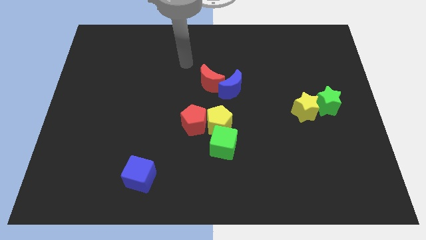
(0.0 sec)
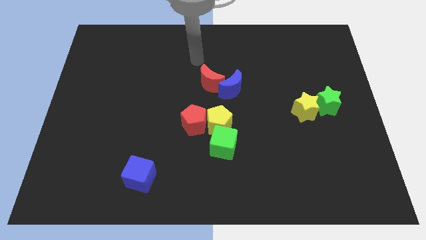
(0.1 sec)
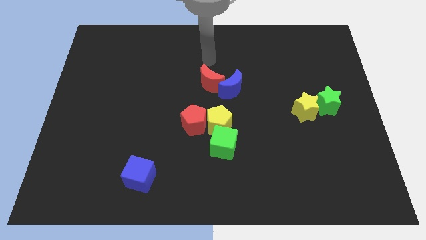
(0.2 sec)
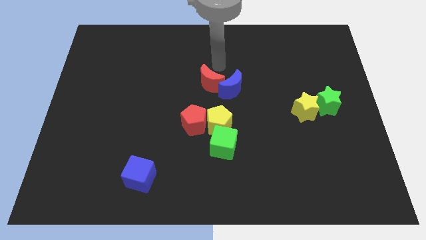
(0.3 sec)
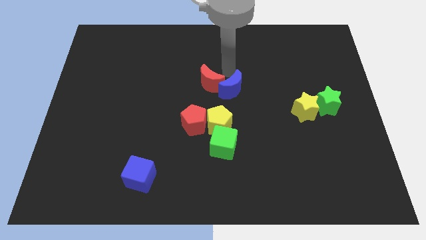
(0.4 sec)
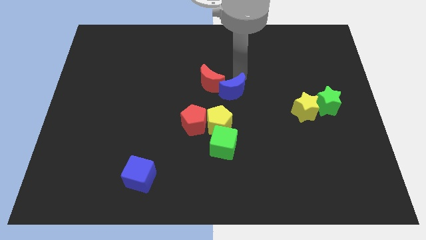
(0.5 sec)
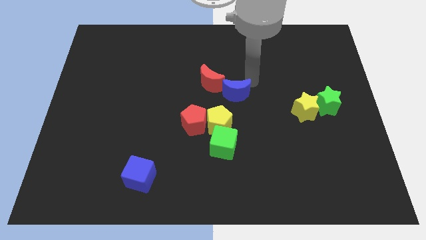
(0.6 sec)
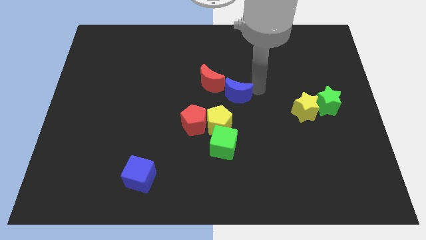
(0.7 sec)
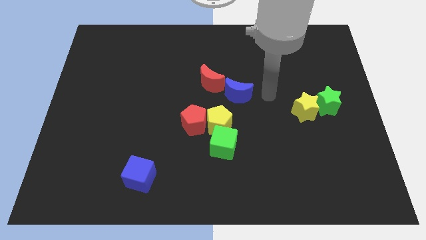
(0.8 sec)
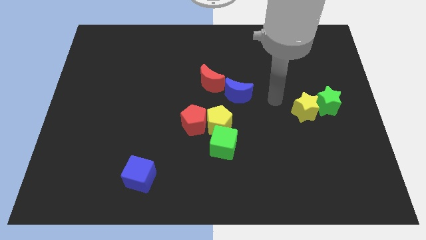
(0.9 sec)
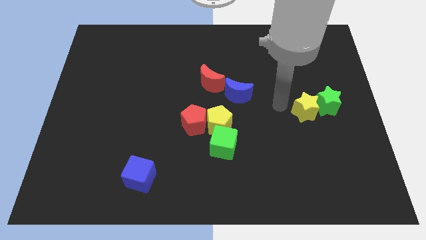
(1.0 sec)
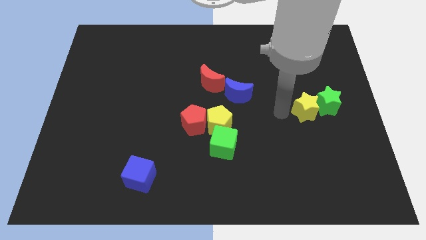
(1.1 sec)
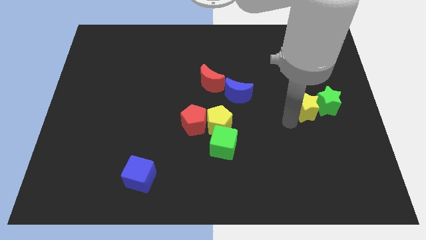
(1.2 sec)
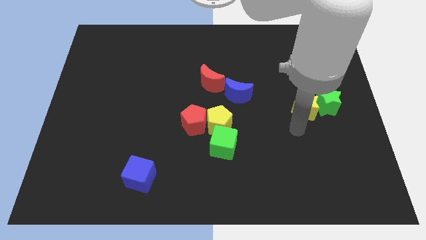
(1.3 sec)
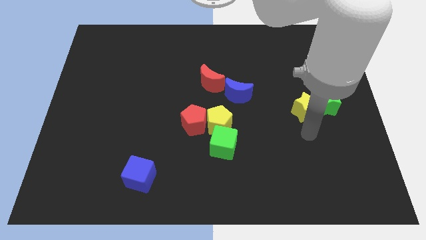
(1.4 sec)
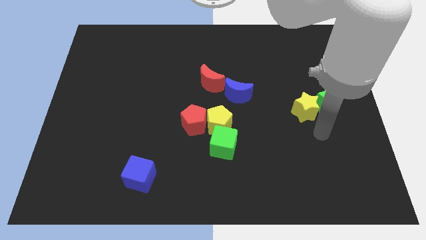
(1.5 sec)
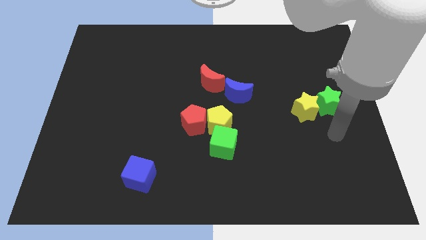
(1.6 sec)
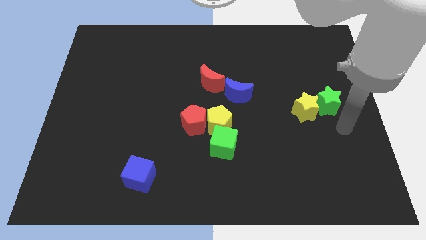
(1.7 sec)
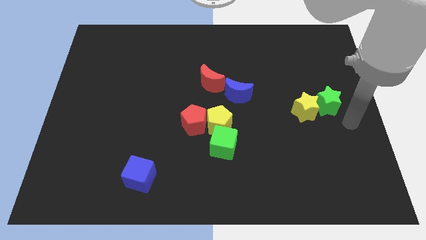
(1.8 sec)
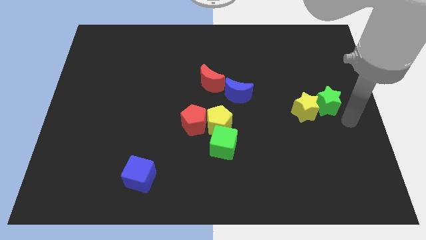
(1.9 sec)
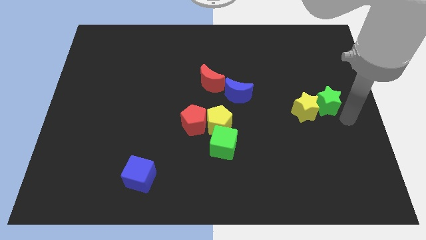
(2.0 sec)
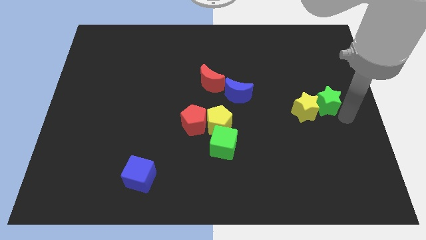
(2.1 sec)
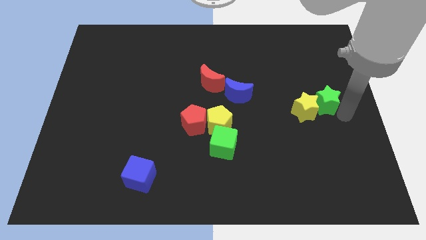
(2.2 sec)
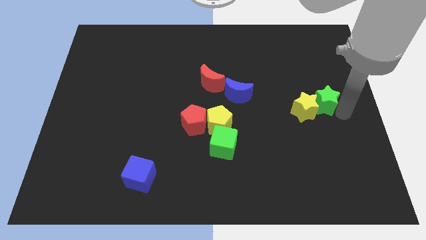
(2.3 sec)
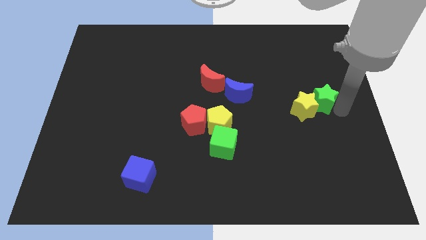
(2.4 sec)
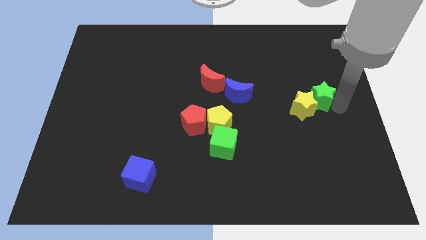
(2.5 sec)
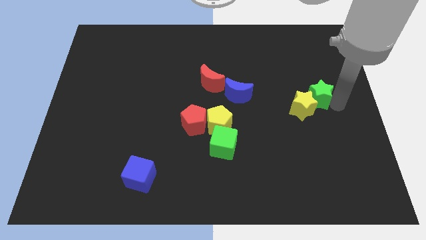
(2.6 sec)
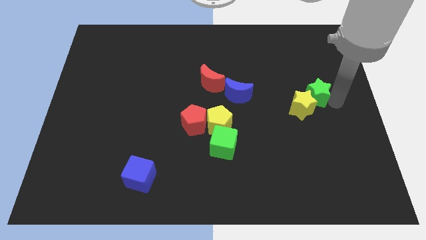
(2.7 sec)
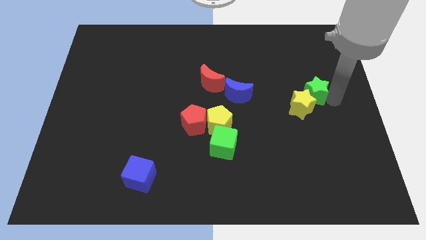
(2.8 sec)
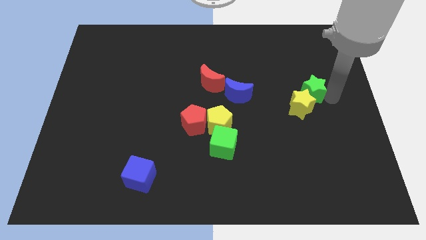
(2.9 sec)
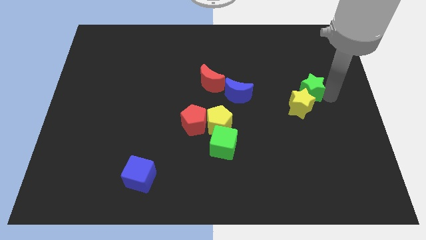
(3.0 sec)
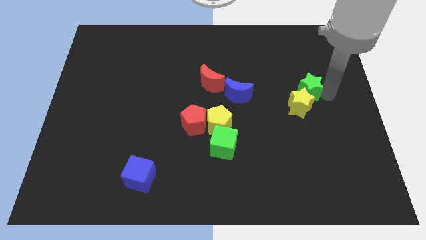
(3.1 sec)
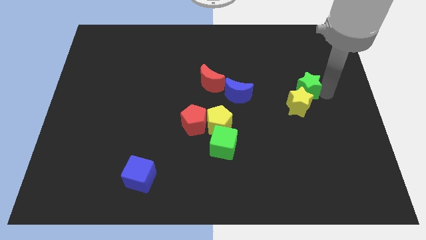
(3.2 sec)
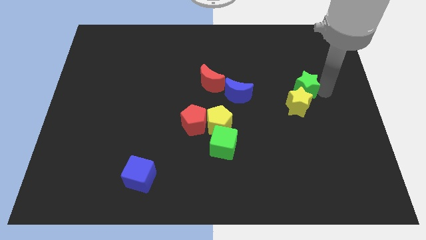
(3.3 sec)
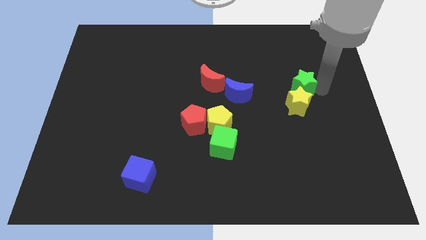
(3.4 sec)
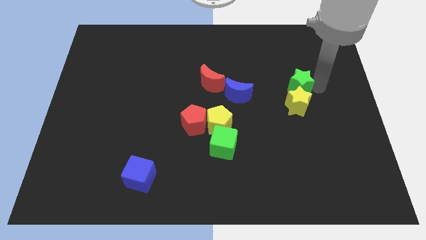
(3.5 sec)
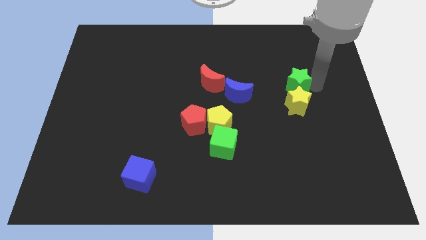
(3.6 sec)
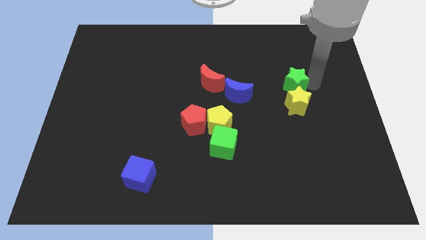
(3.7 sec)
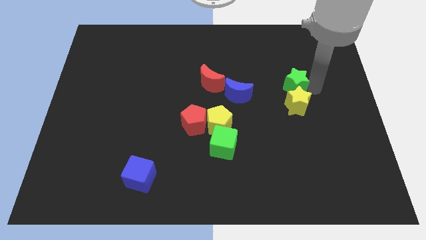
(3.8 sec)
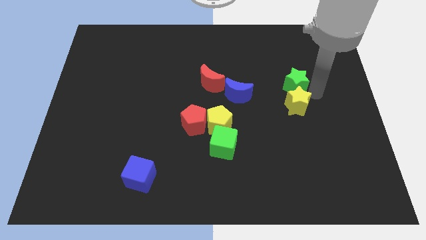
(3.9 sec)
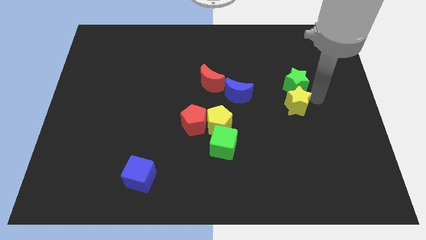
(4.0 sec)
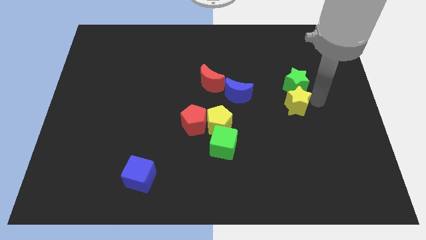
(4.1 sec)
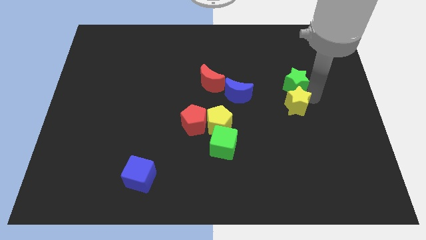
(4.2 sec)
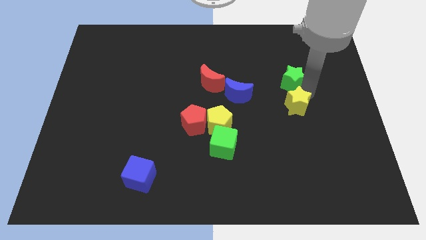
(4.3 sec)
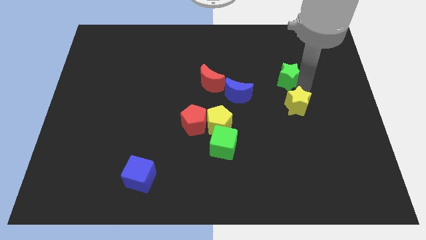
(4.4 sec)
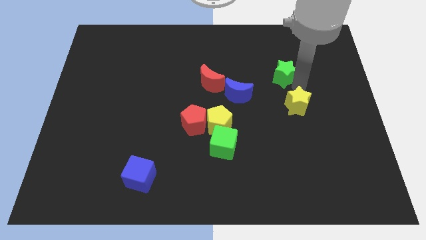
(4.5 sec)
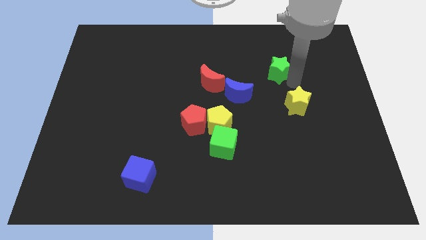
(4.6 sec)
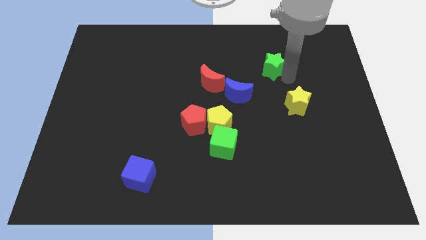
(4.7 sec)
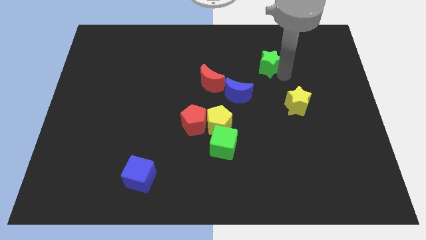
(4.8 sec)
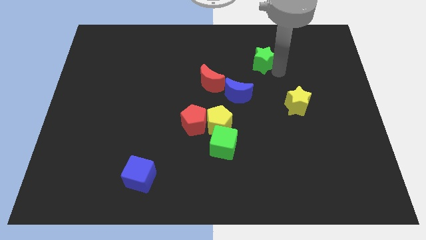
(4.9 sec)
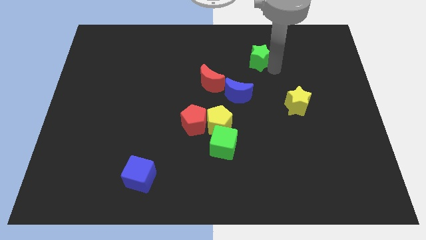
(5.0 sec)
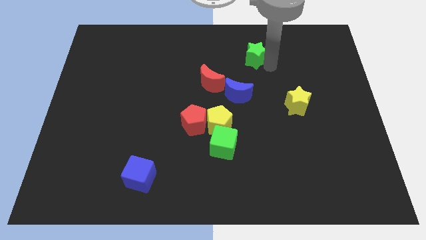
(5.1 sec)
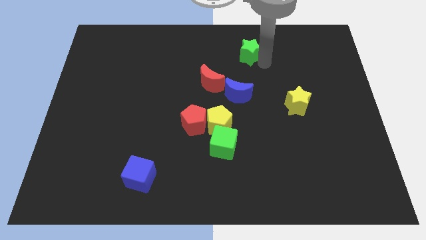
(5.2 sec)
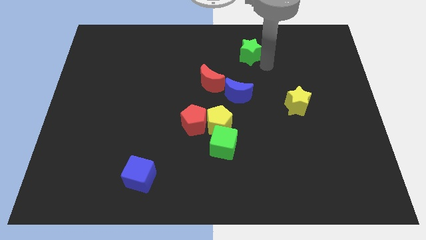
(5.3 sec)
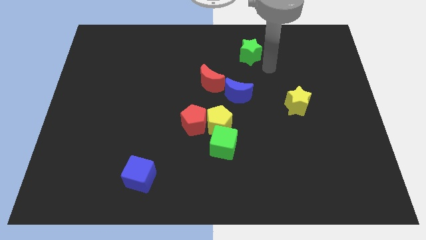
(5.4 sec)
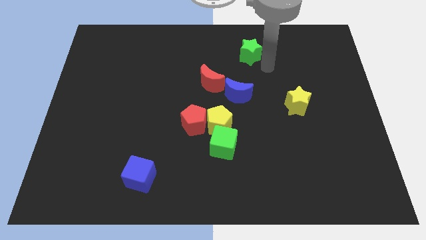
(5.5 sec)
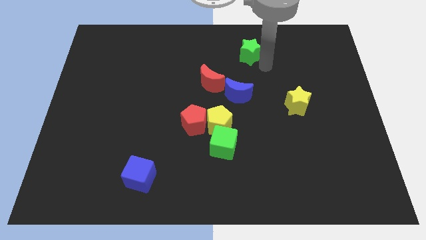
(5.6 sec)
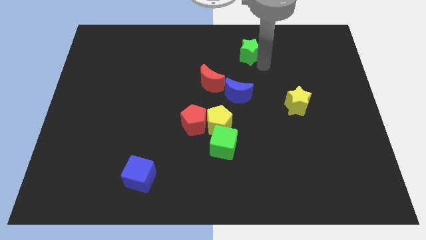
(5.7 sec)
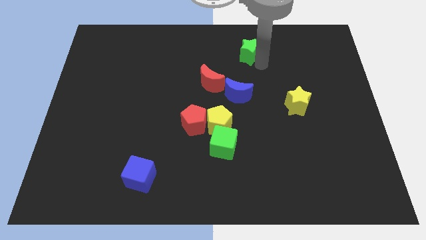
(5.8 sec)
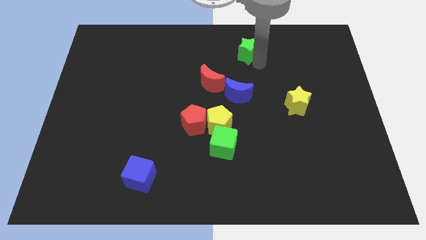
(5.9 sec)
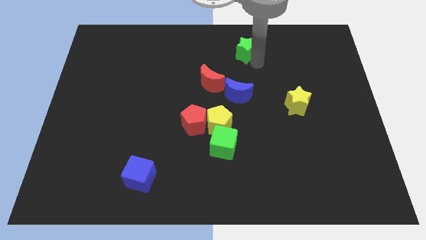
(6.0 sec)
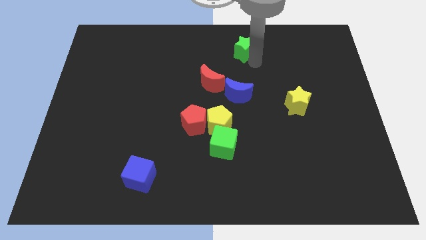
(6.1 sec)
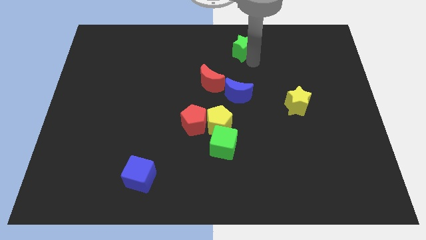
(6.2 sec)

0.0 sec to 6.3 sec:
put the green star to the top side
